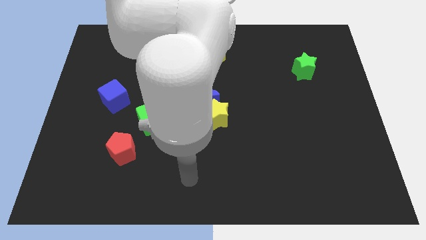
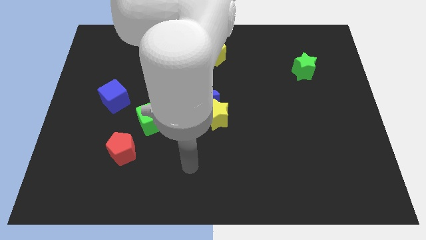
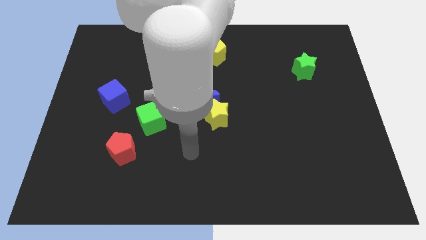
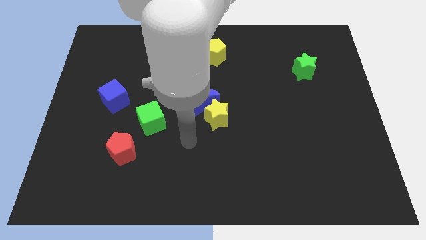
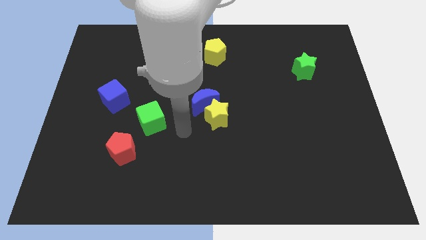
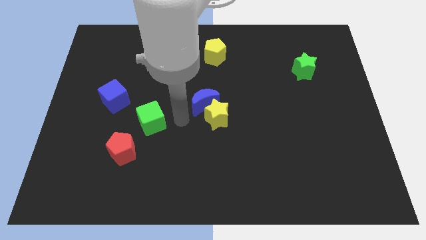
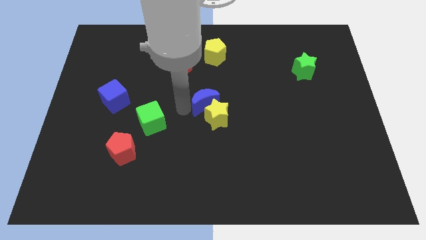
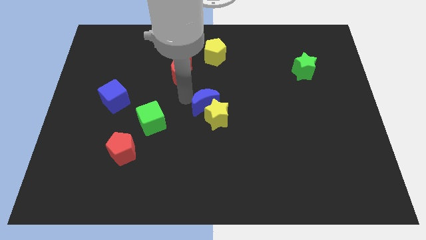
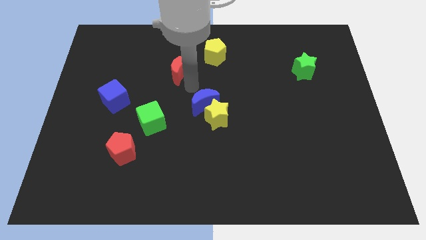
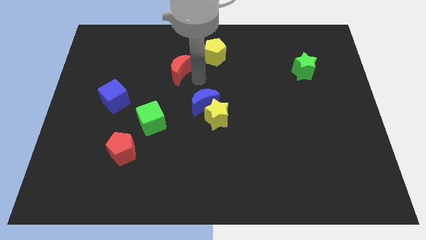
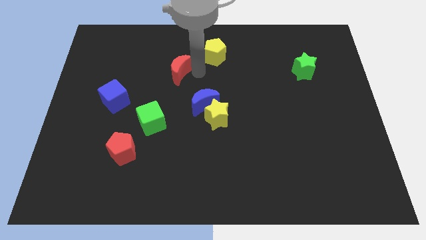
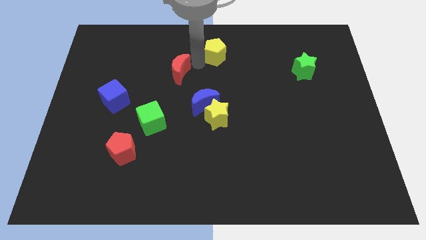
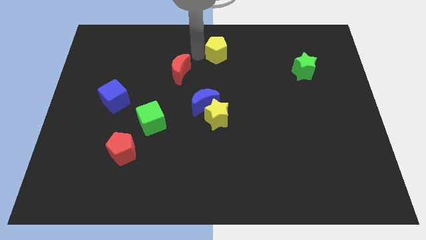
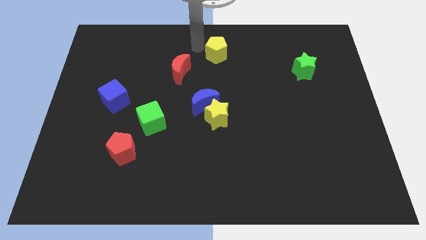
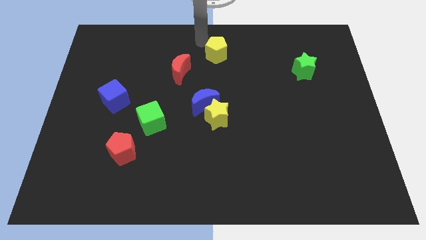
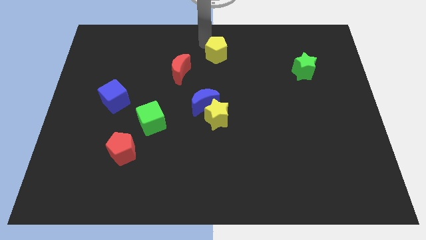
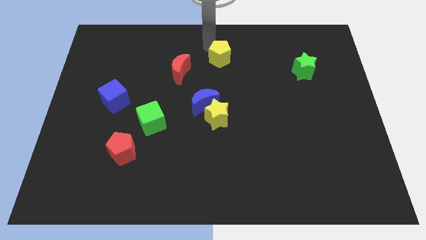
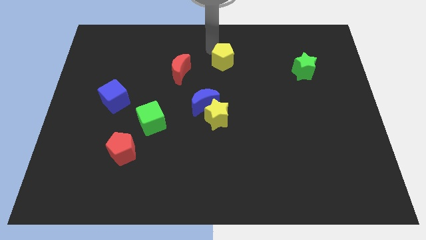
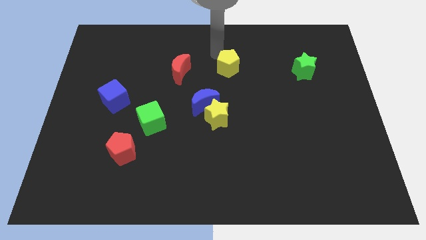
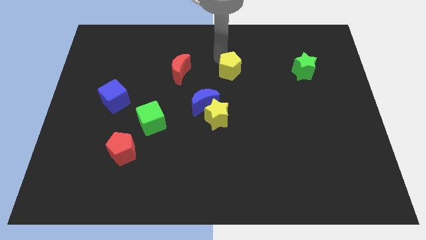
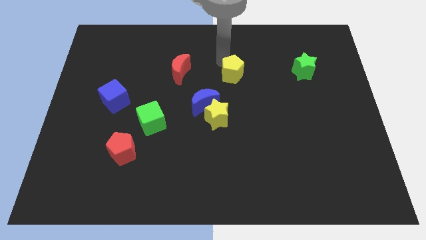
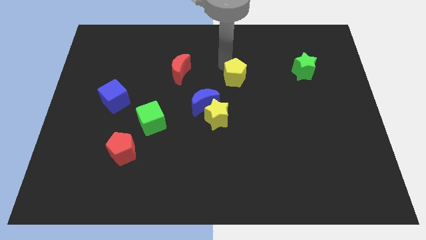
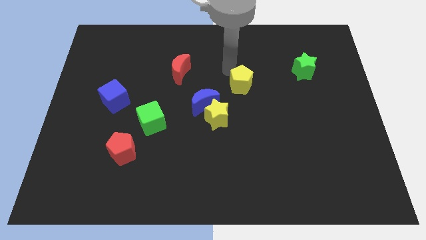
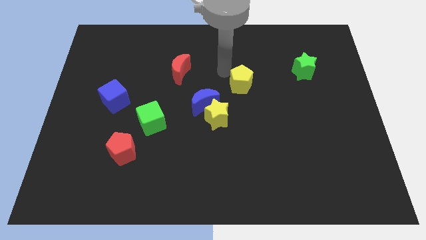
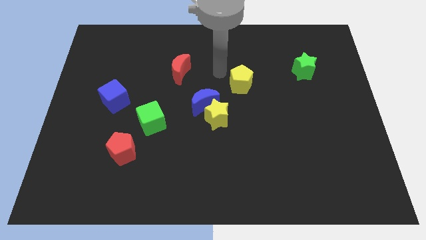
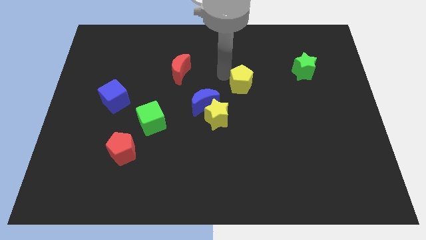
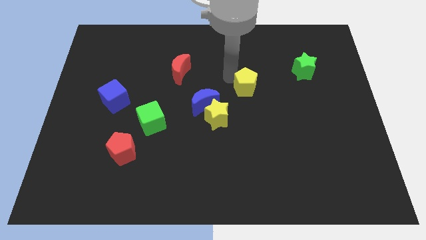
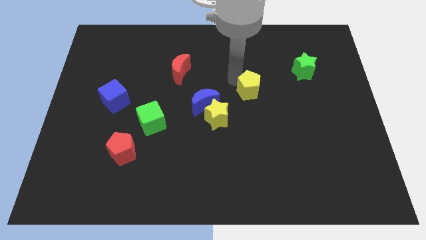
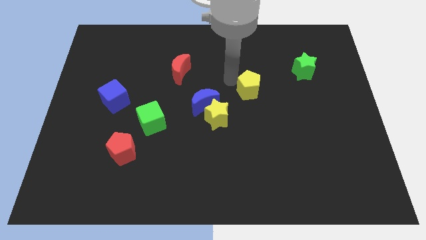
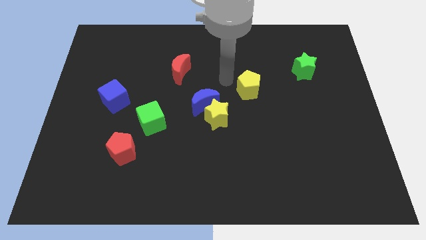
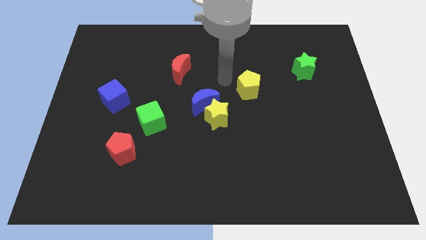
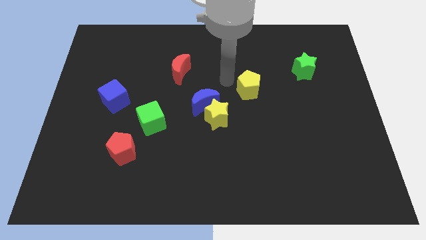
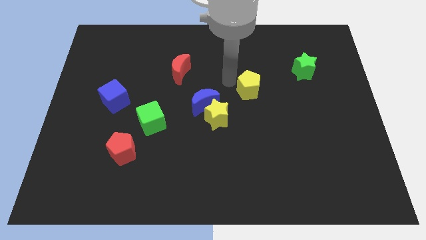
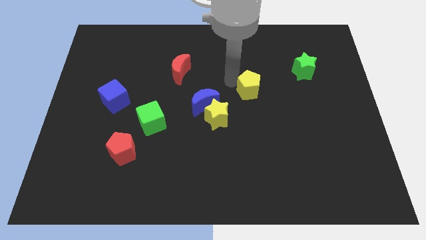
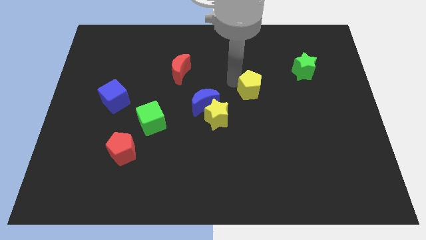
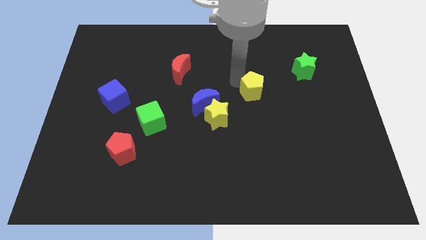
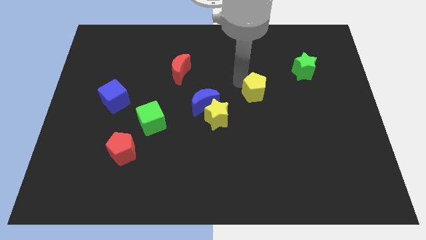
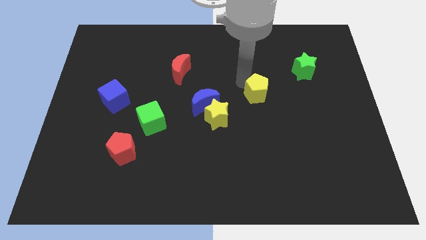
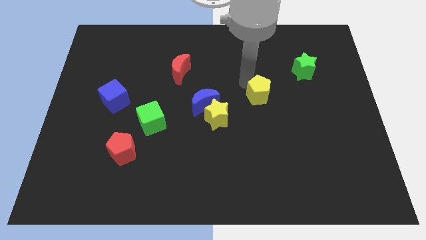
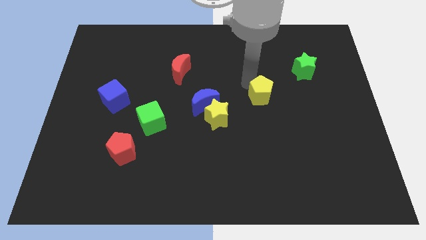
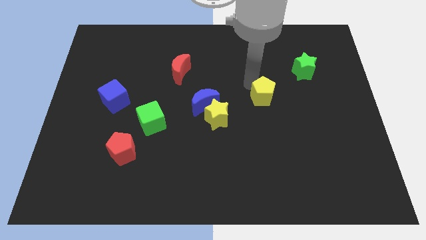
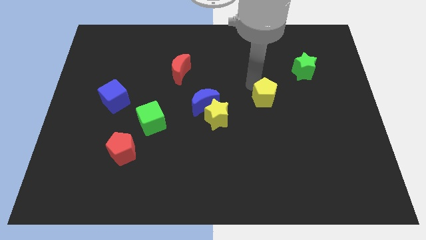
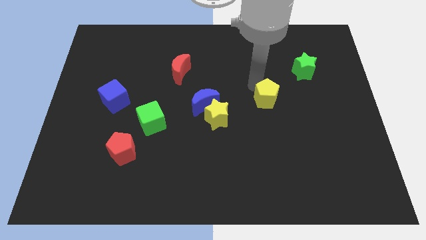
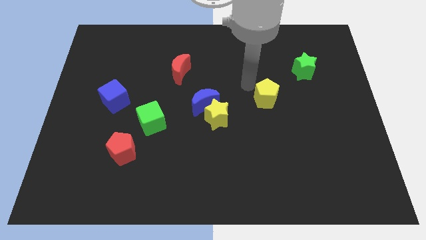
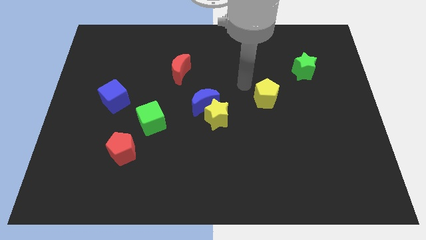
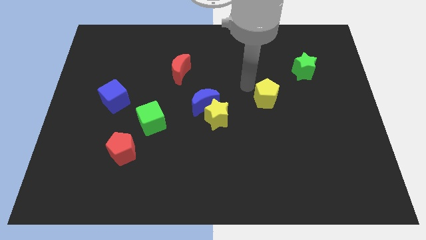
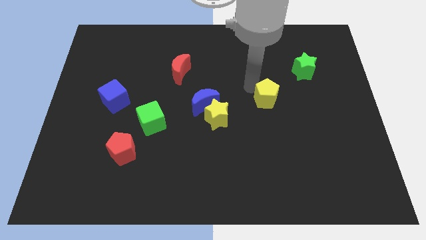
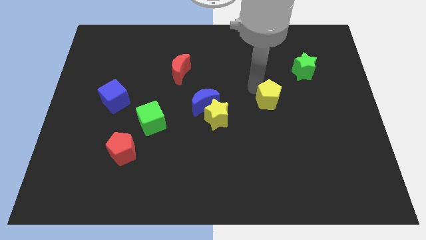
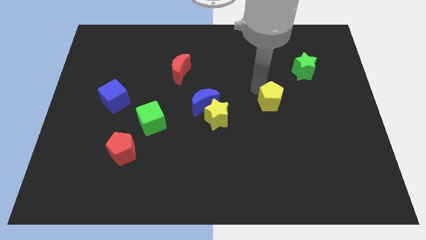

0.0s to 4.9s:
push the yellow pentagon downwards and to the right diagonally

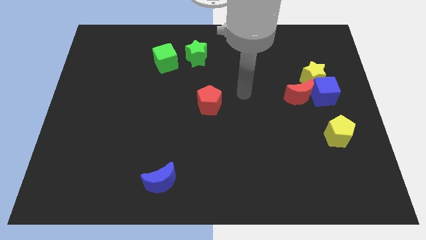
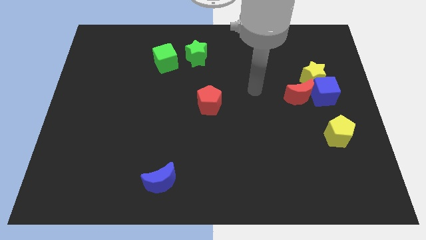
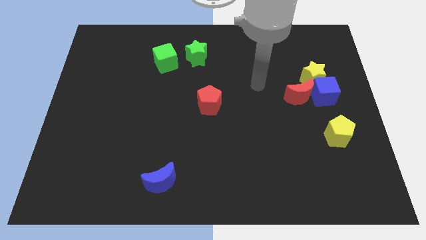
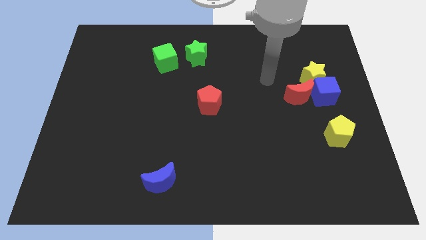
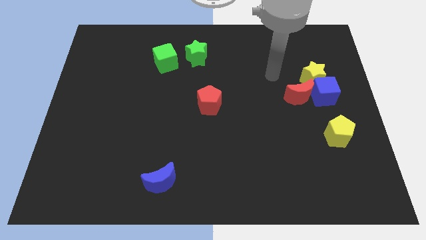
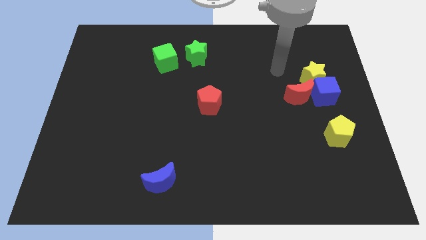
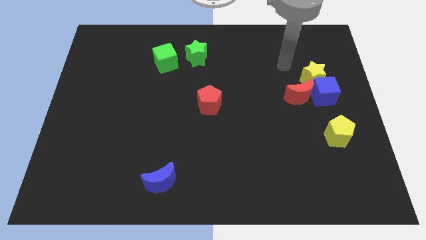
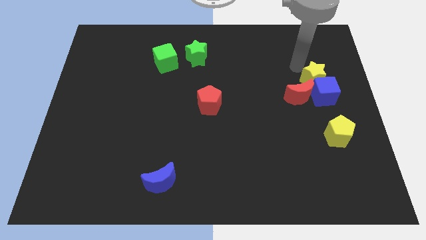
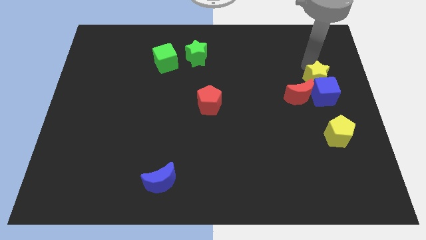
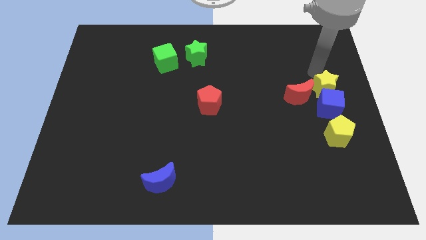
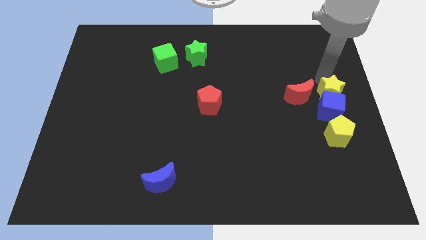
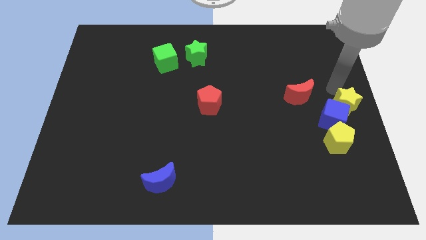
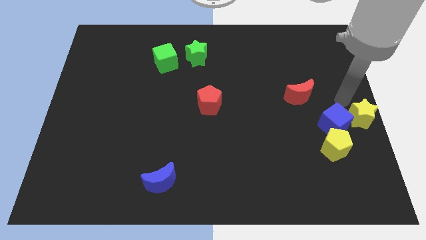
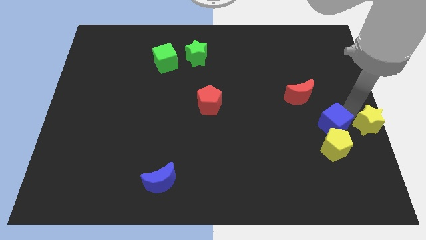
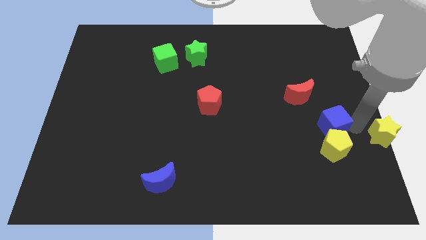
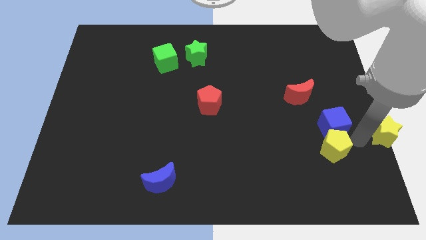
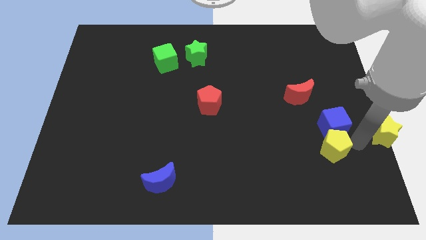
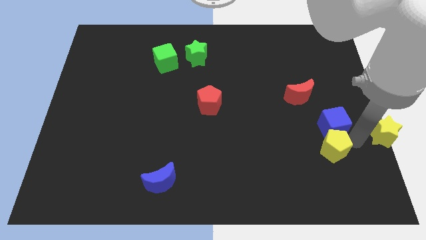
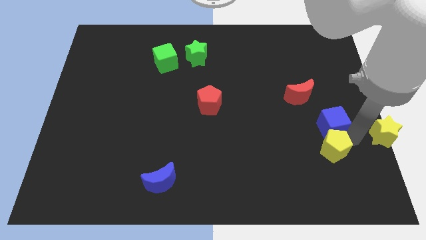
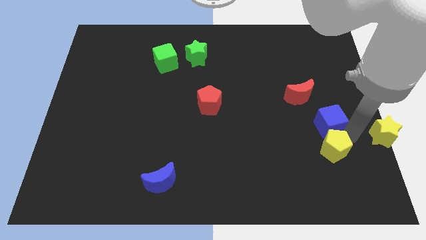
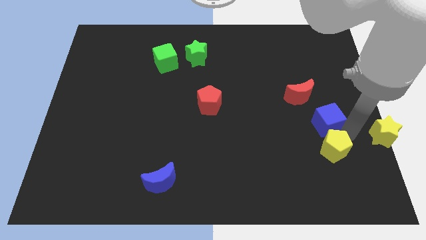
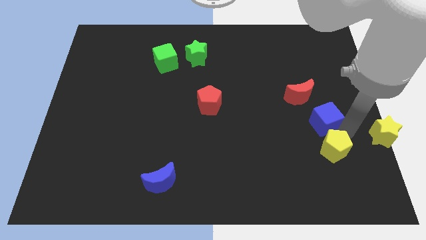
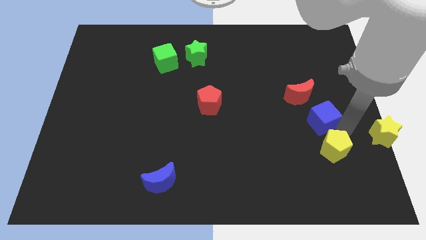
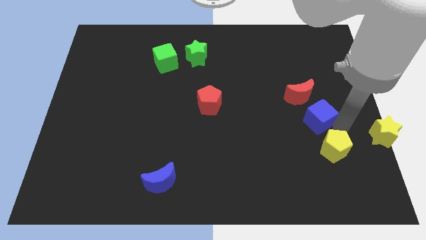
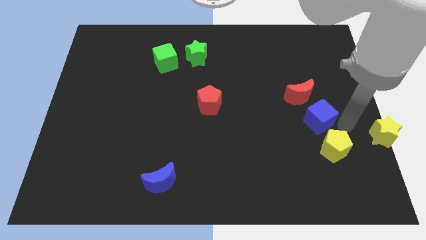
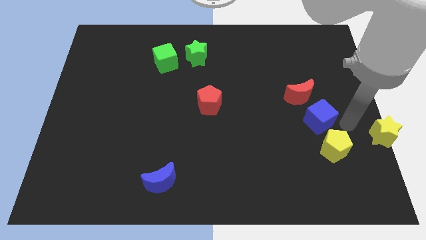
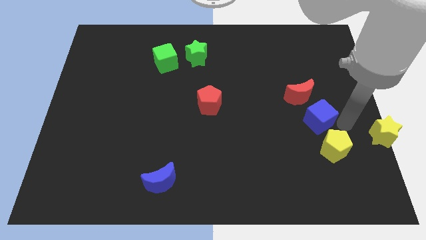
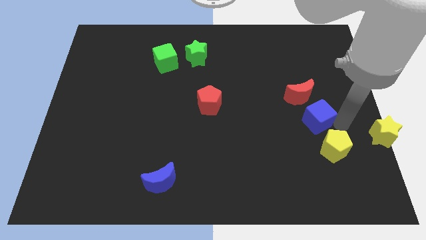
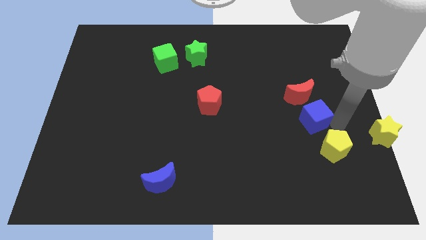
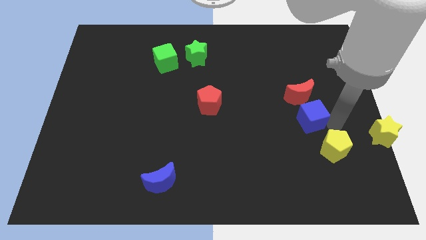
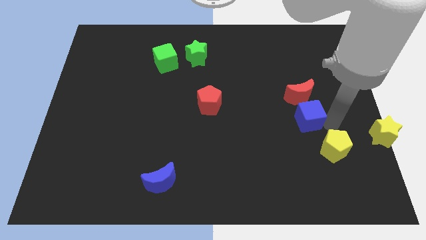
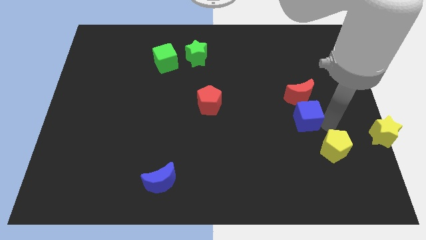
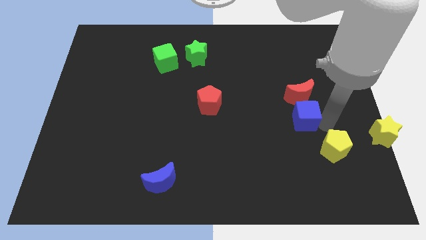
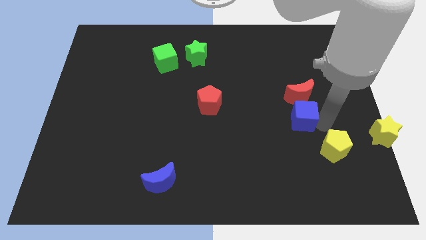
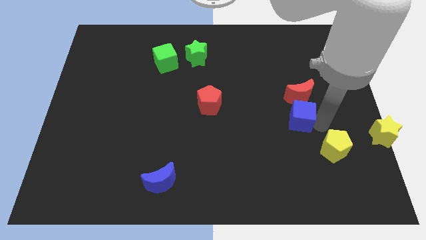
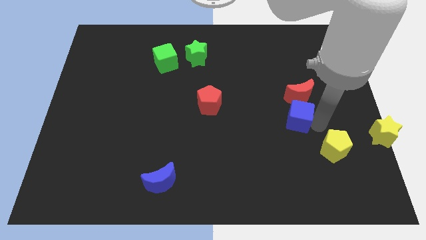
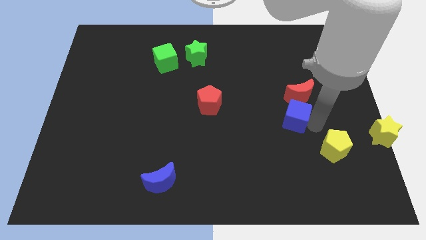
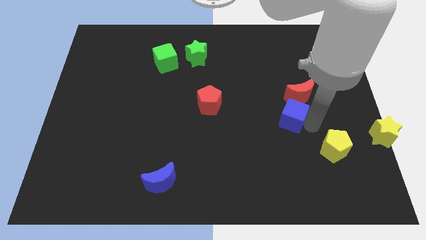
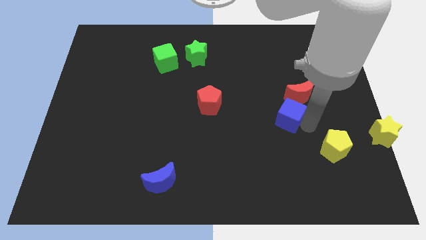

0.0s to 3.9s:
slightly push the blue cube to the left
